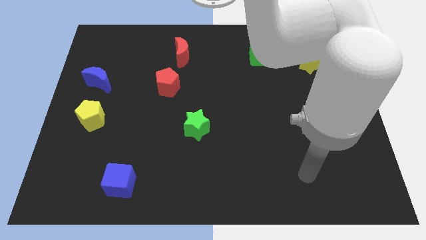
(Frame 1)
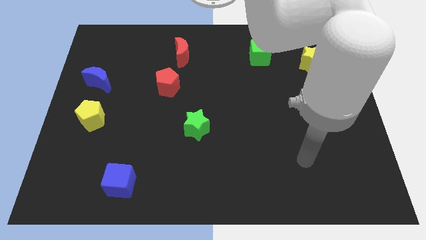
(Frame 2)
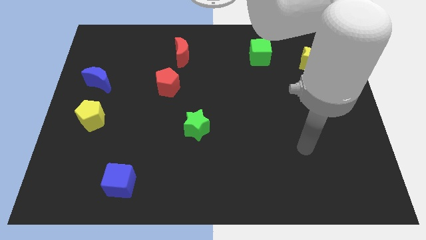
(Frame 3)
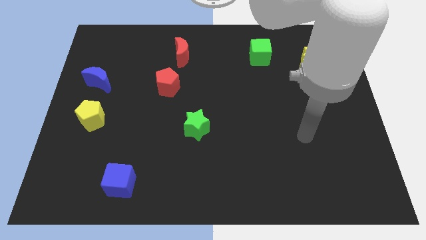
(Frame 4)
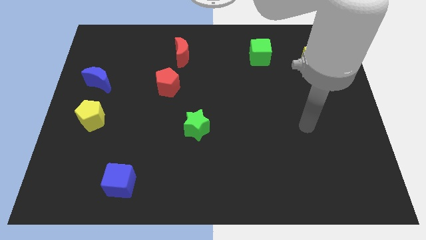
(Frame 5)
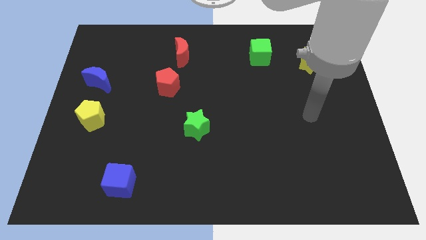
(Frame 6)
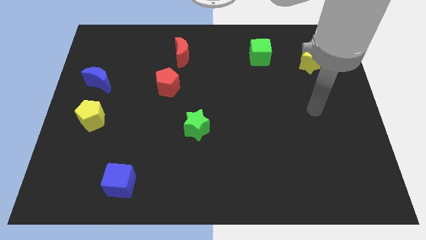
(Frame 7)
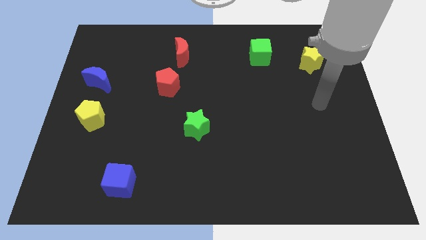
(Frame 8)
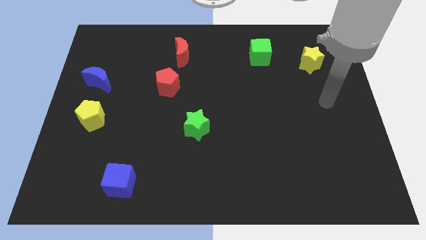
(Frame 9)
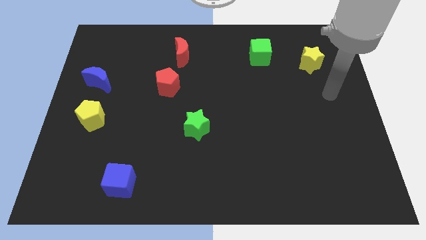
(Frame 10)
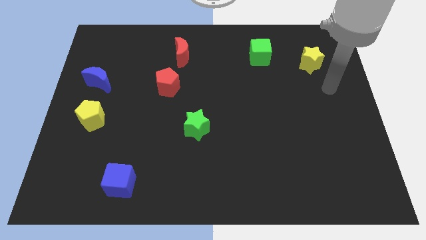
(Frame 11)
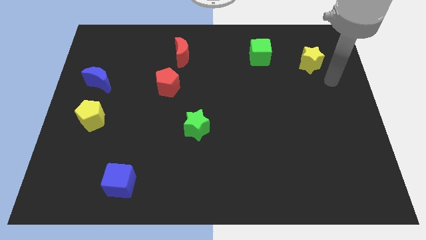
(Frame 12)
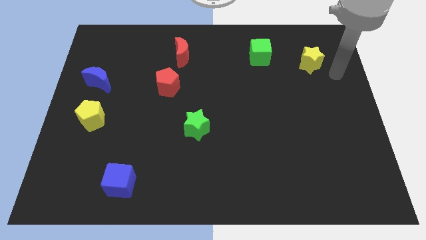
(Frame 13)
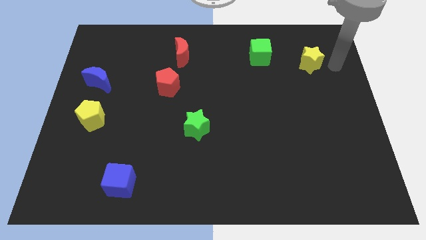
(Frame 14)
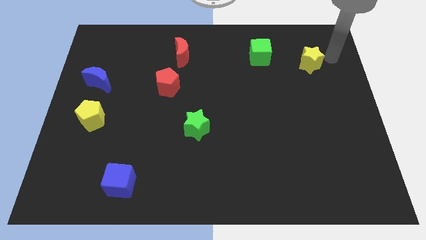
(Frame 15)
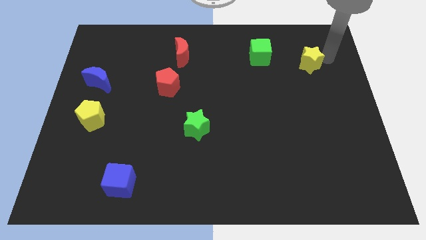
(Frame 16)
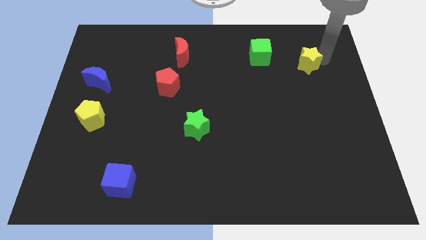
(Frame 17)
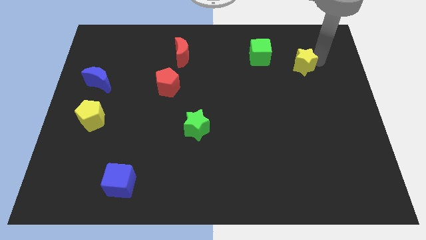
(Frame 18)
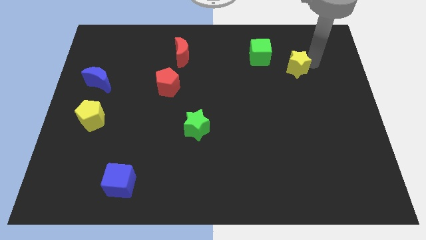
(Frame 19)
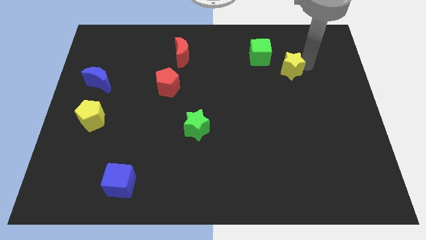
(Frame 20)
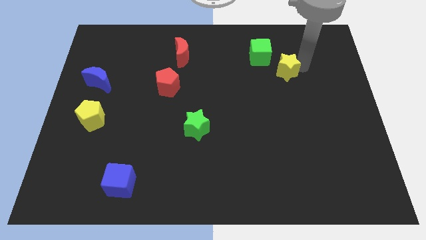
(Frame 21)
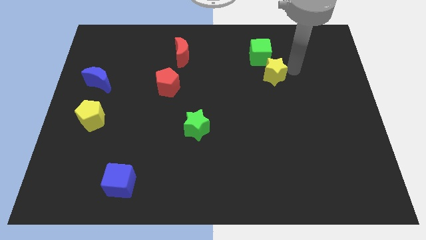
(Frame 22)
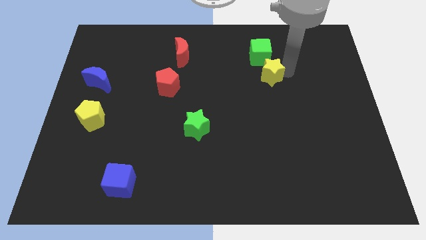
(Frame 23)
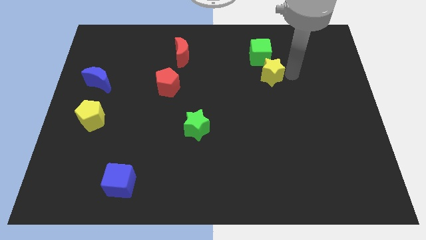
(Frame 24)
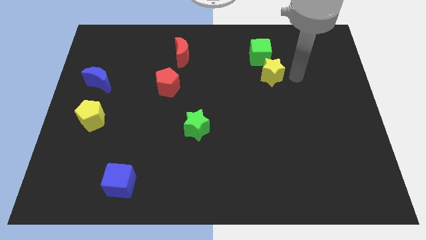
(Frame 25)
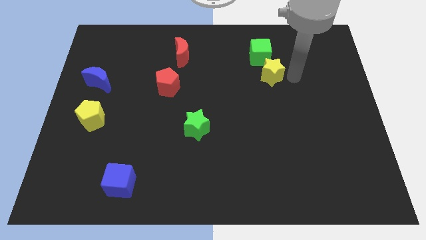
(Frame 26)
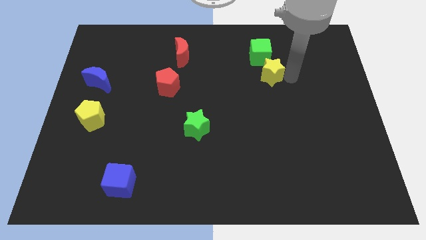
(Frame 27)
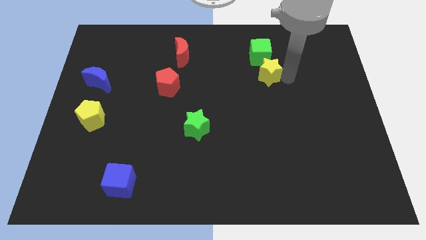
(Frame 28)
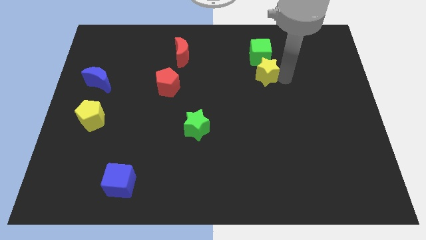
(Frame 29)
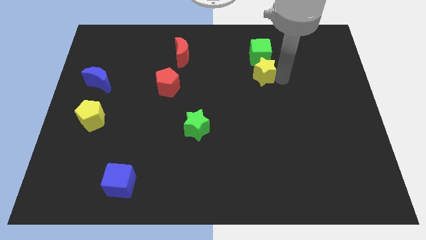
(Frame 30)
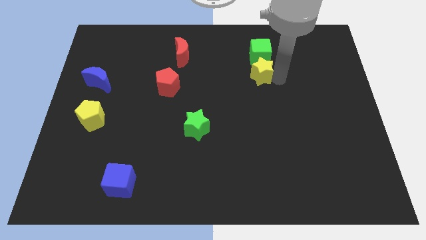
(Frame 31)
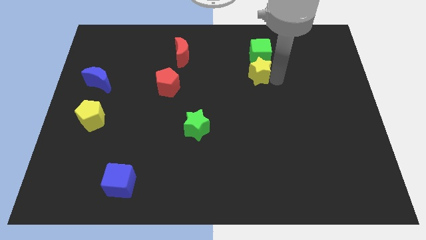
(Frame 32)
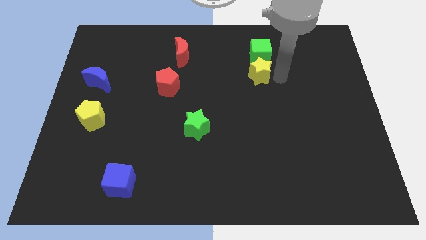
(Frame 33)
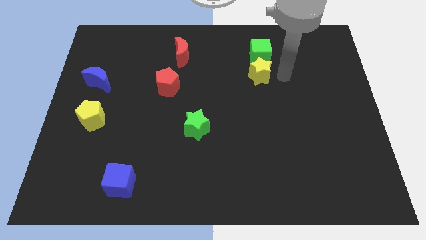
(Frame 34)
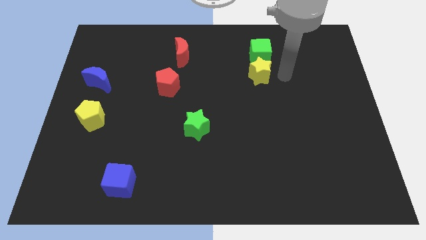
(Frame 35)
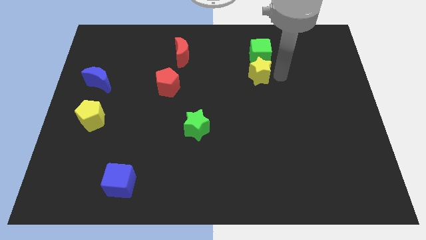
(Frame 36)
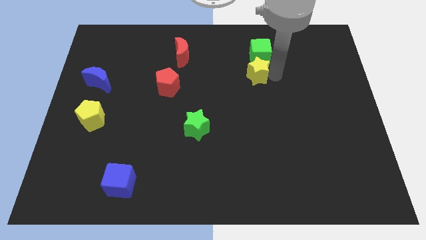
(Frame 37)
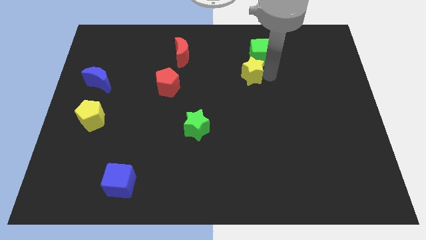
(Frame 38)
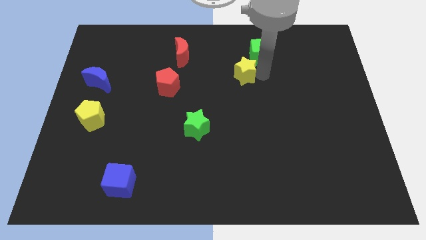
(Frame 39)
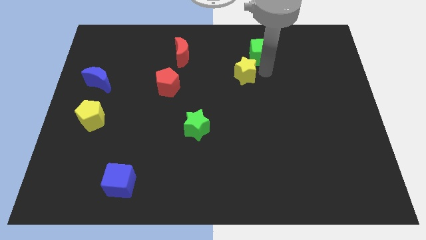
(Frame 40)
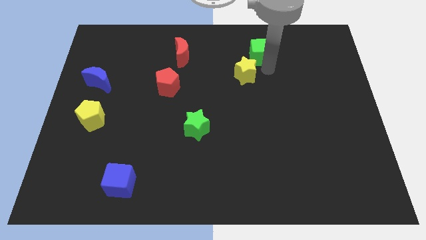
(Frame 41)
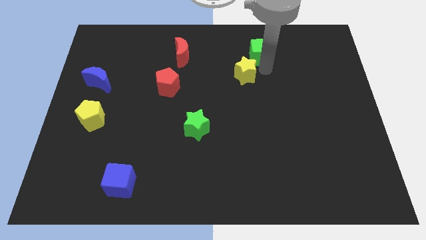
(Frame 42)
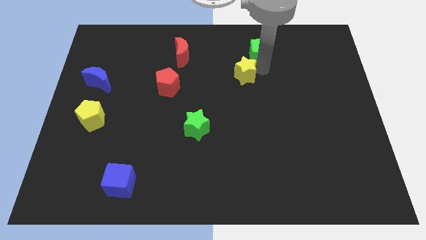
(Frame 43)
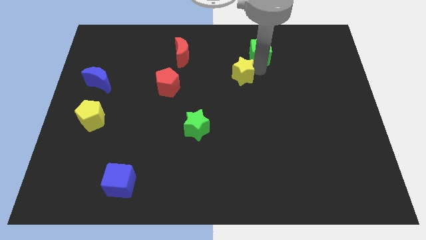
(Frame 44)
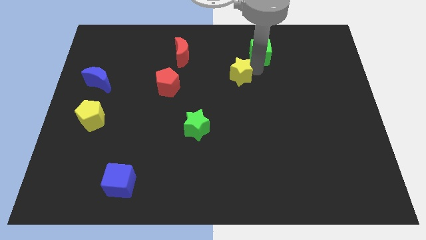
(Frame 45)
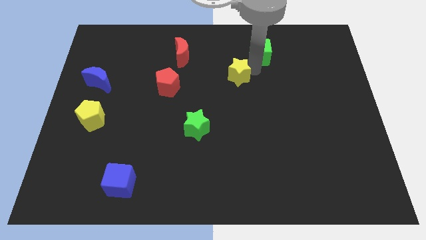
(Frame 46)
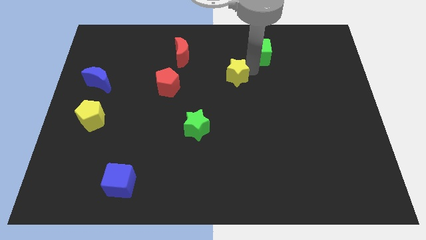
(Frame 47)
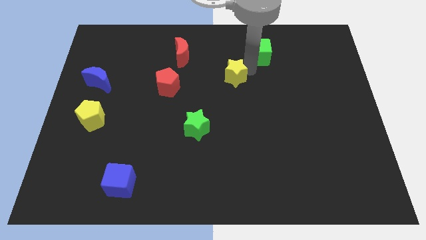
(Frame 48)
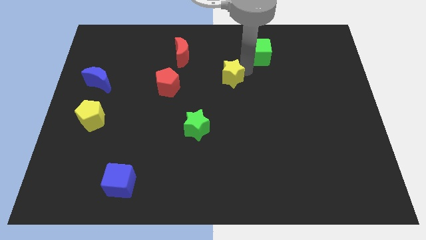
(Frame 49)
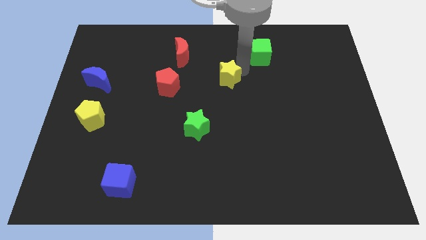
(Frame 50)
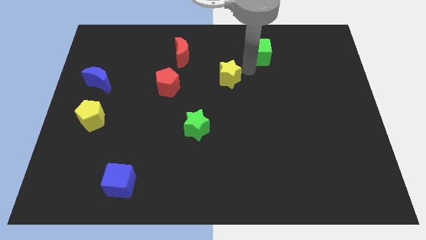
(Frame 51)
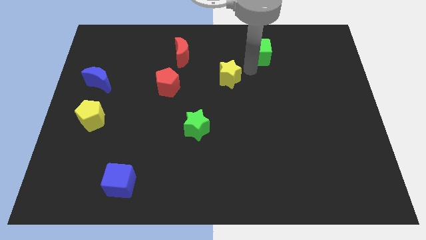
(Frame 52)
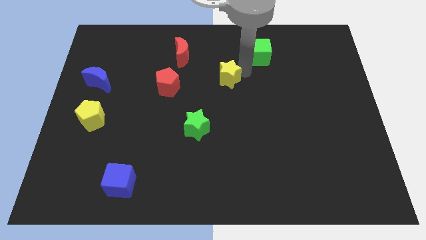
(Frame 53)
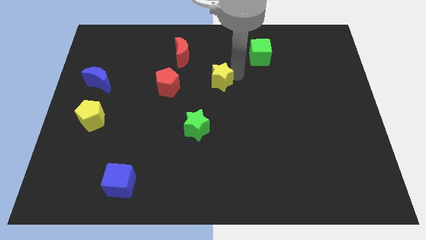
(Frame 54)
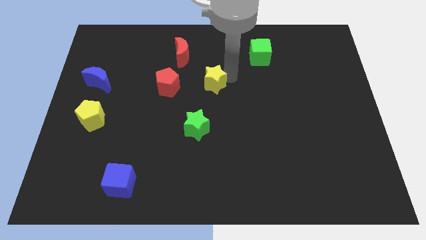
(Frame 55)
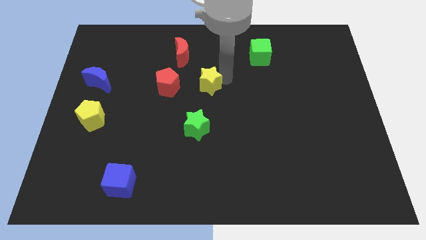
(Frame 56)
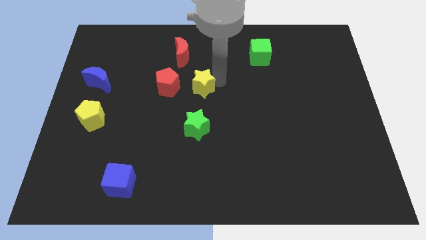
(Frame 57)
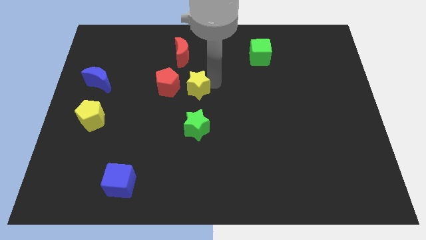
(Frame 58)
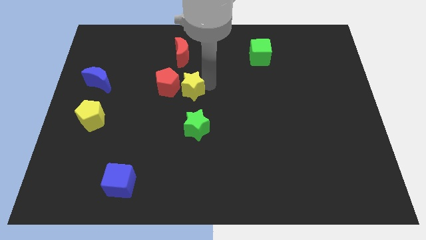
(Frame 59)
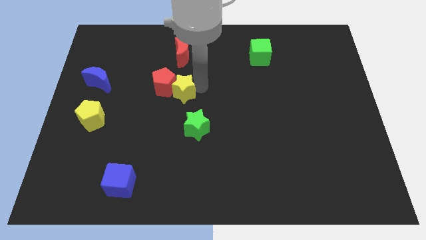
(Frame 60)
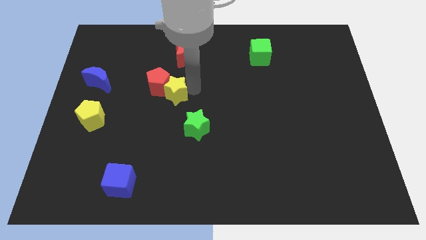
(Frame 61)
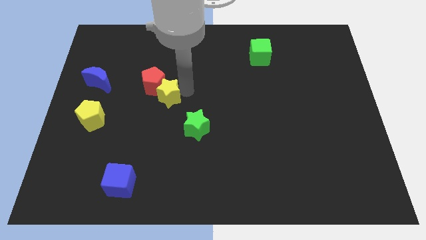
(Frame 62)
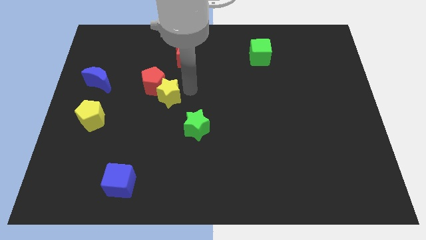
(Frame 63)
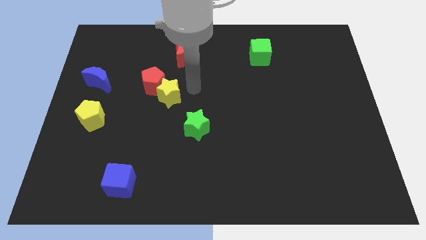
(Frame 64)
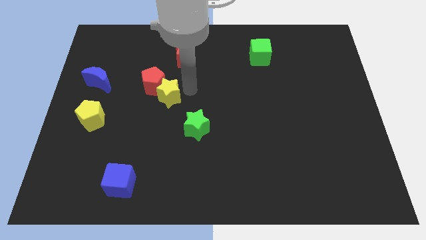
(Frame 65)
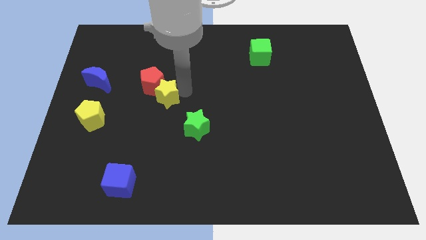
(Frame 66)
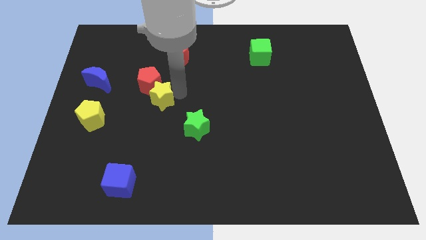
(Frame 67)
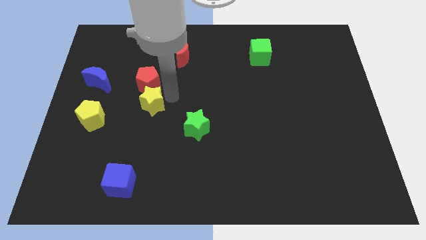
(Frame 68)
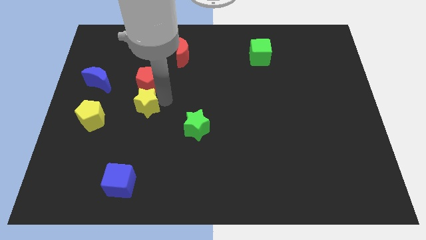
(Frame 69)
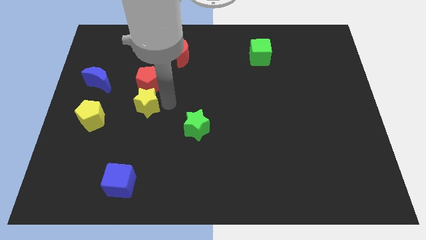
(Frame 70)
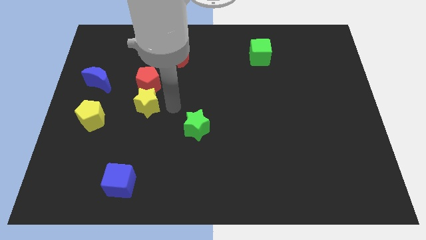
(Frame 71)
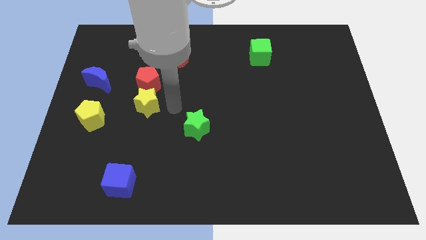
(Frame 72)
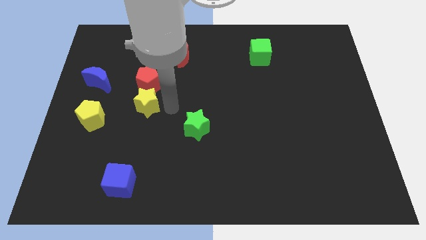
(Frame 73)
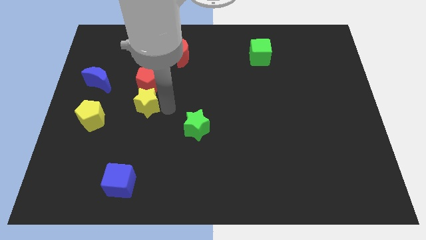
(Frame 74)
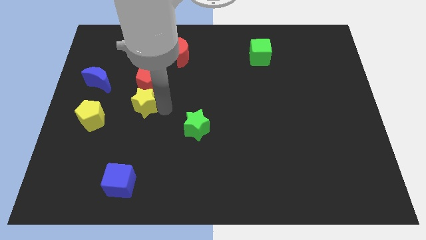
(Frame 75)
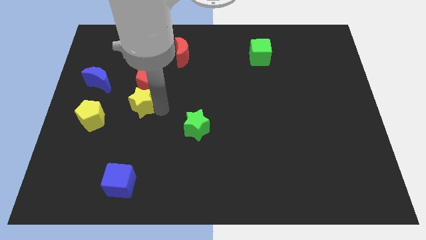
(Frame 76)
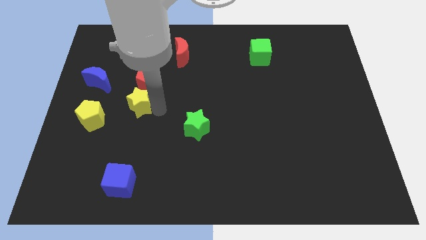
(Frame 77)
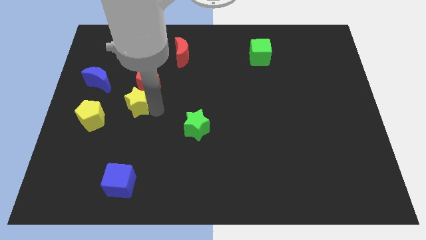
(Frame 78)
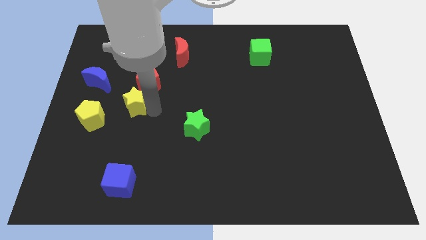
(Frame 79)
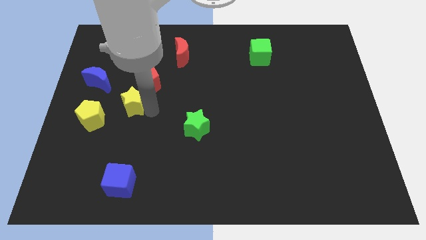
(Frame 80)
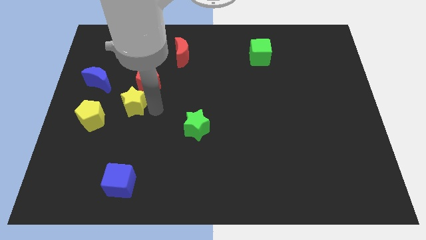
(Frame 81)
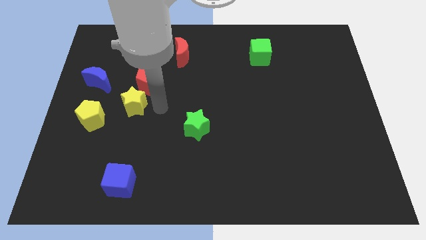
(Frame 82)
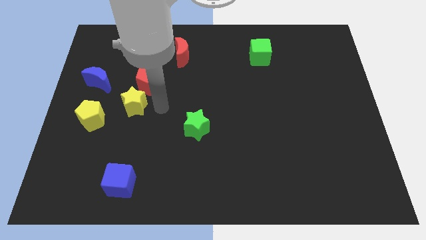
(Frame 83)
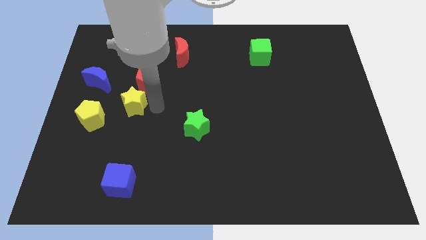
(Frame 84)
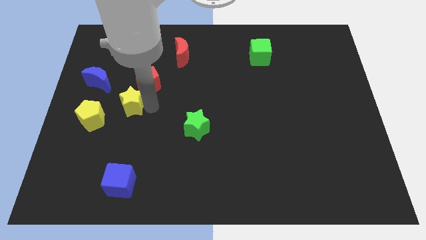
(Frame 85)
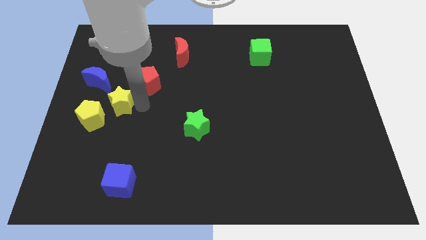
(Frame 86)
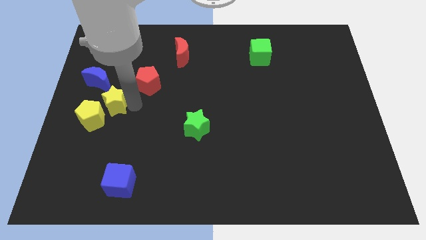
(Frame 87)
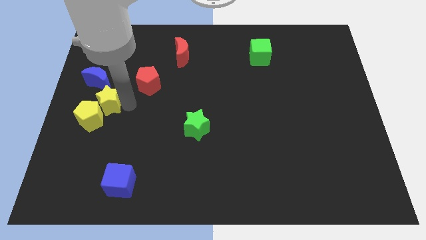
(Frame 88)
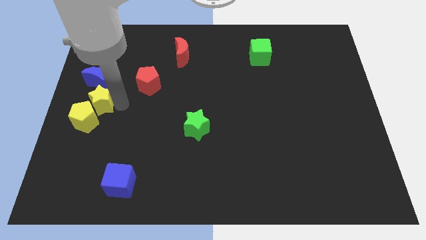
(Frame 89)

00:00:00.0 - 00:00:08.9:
slide the yellow star to the center left
